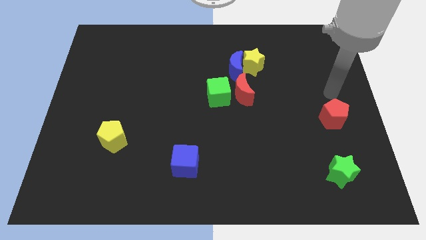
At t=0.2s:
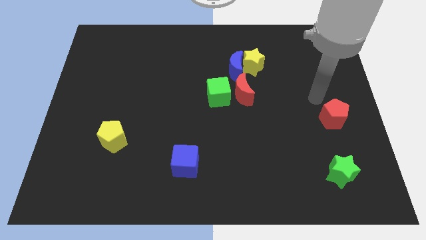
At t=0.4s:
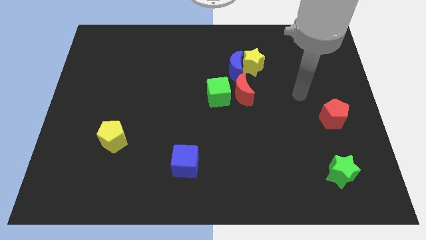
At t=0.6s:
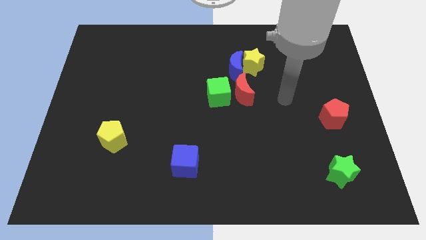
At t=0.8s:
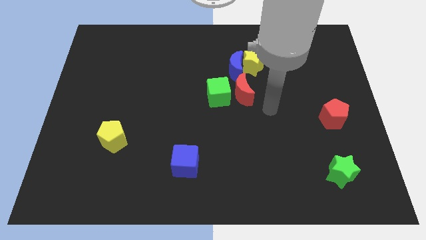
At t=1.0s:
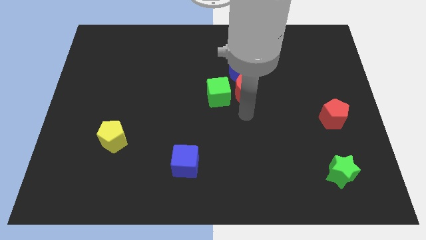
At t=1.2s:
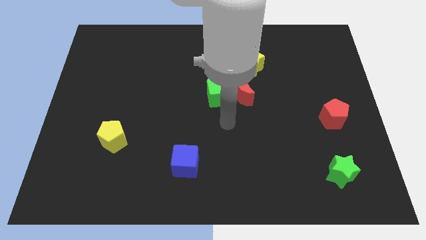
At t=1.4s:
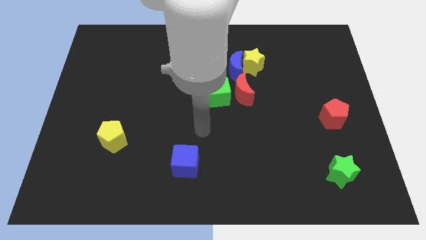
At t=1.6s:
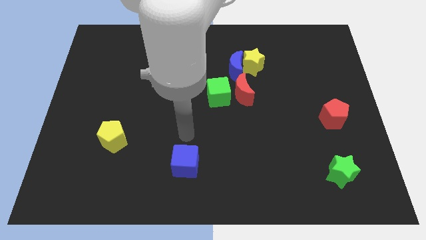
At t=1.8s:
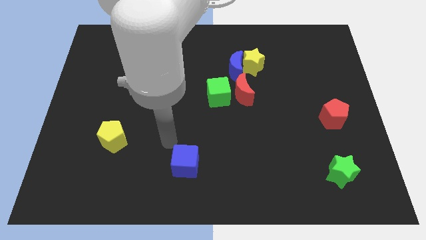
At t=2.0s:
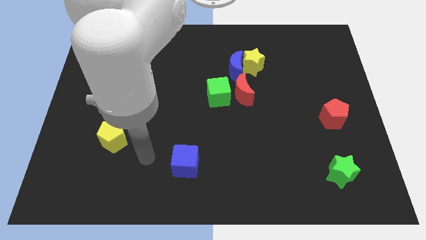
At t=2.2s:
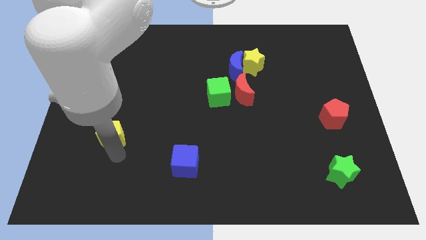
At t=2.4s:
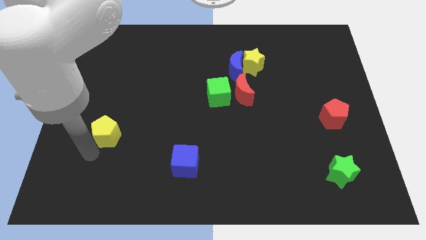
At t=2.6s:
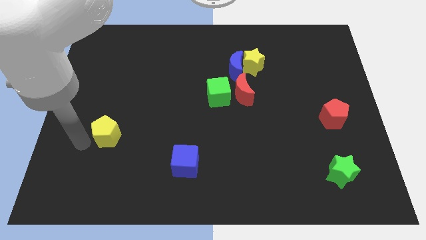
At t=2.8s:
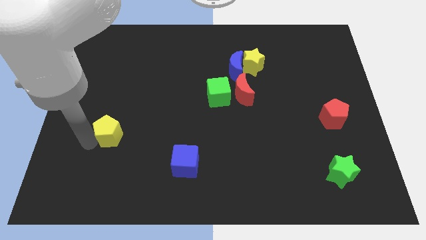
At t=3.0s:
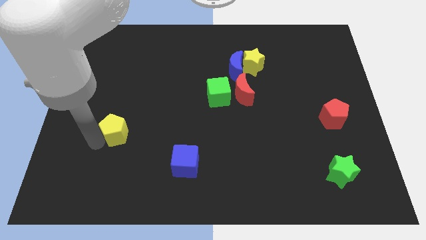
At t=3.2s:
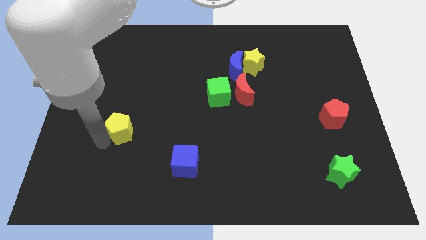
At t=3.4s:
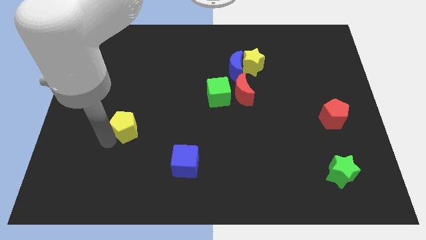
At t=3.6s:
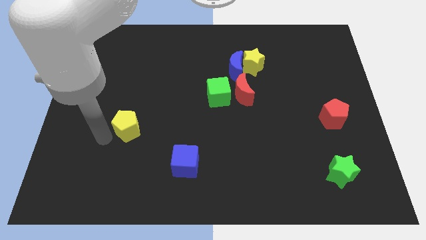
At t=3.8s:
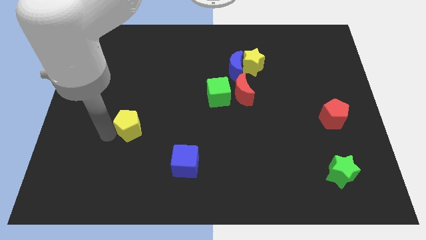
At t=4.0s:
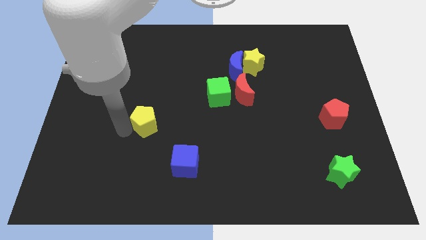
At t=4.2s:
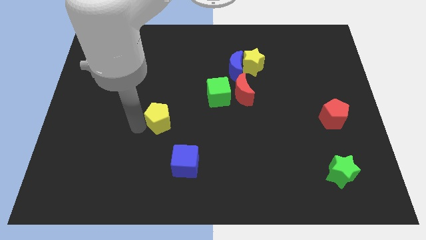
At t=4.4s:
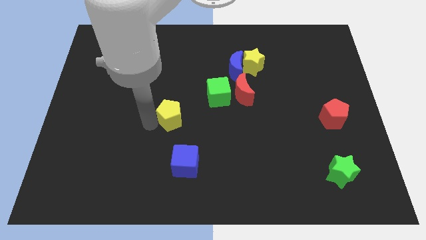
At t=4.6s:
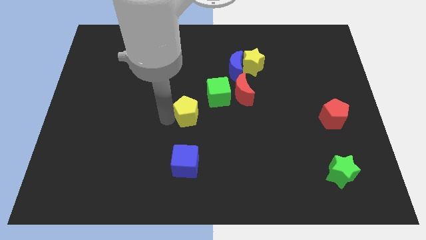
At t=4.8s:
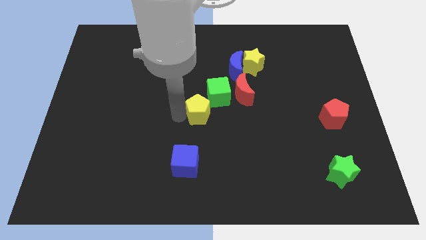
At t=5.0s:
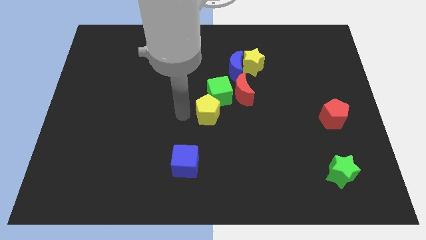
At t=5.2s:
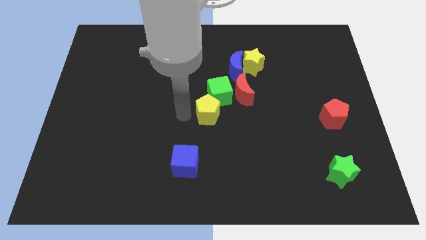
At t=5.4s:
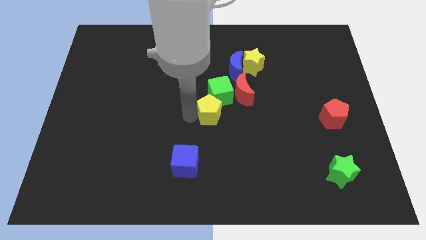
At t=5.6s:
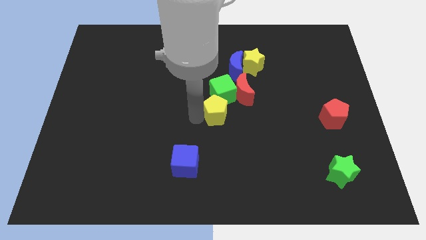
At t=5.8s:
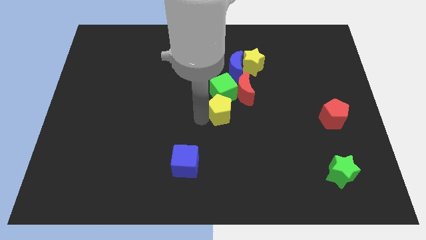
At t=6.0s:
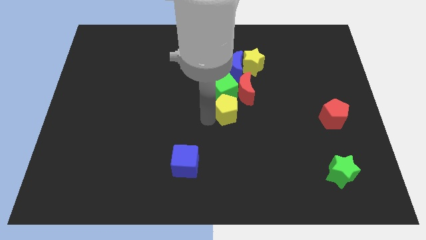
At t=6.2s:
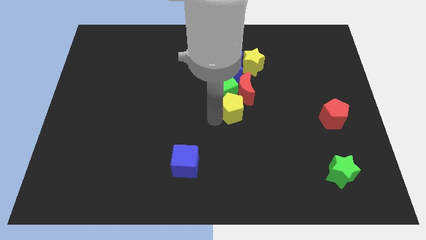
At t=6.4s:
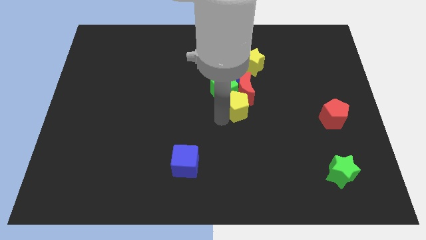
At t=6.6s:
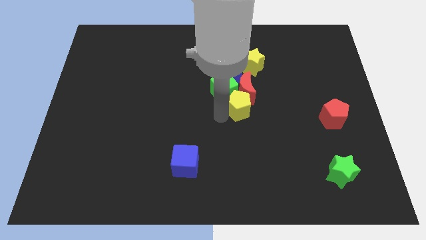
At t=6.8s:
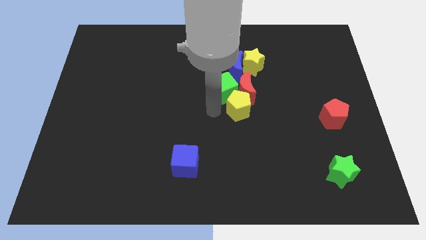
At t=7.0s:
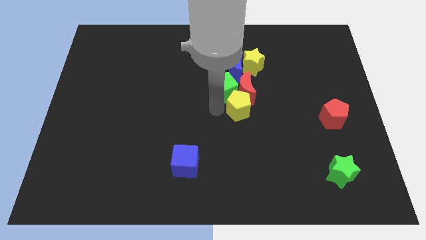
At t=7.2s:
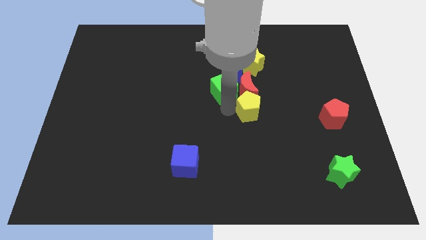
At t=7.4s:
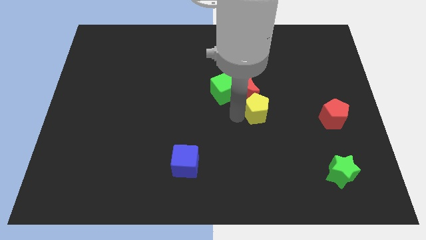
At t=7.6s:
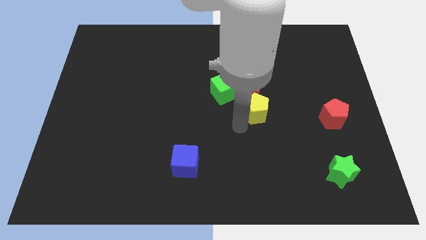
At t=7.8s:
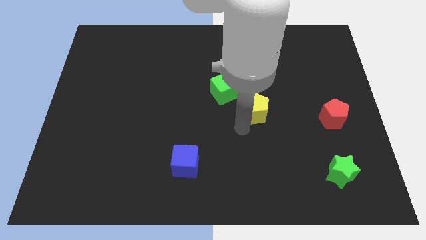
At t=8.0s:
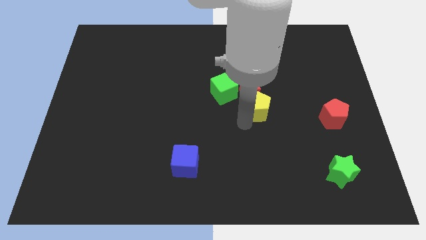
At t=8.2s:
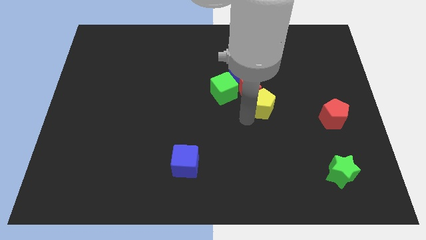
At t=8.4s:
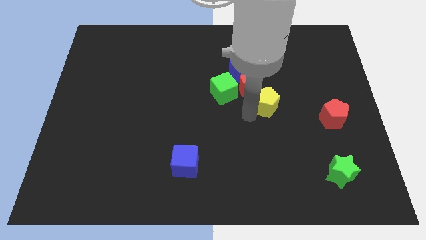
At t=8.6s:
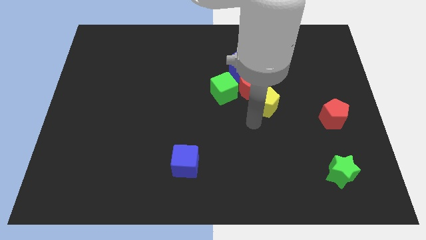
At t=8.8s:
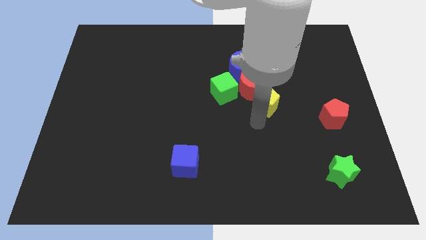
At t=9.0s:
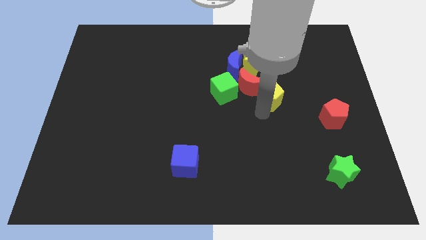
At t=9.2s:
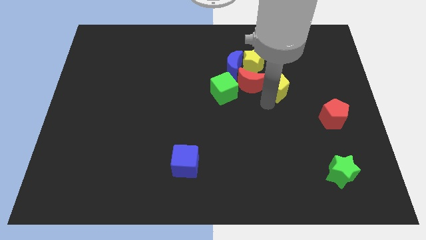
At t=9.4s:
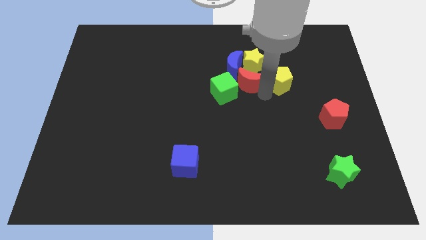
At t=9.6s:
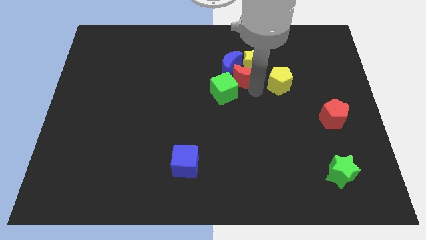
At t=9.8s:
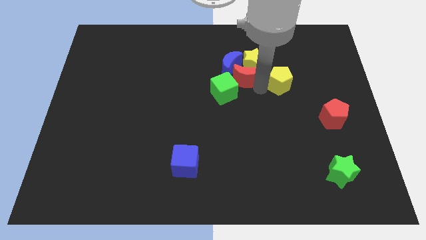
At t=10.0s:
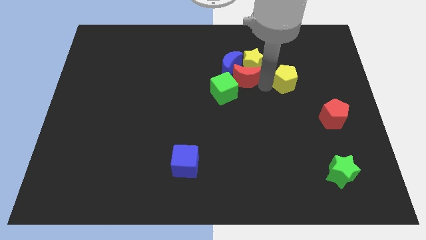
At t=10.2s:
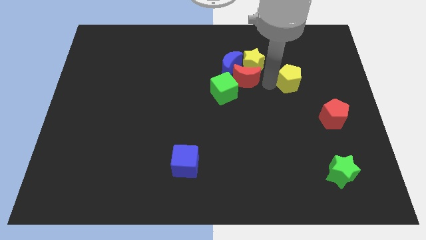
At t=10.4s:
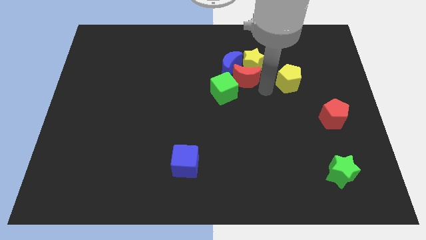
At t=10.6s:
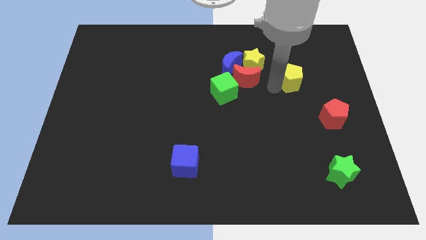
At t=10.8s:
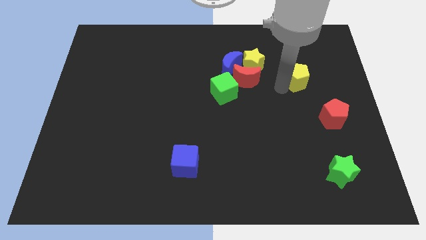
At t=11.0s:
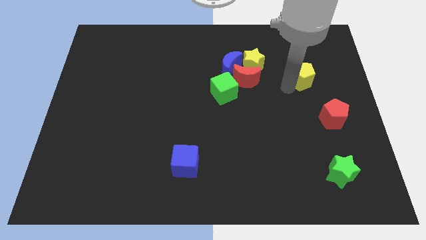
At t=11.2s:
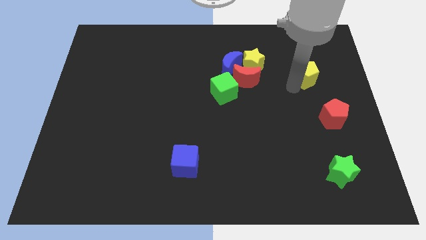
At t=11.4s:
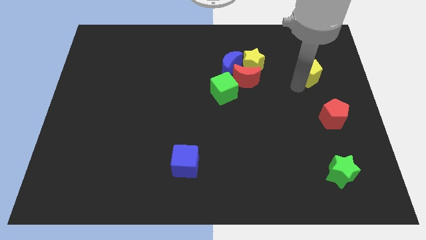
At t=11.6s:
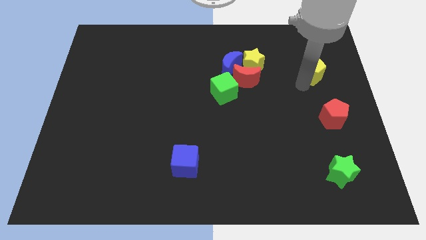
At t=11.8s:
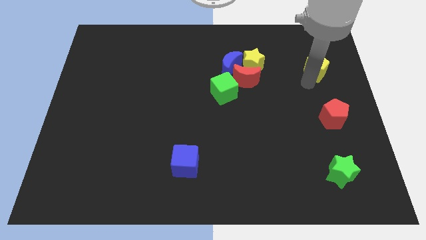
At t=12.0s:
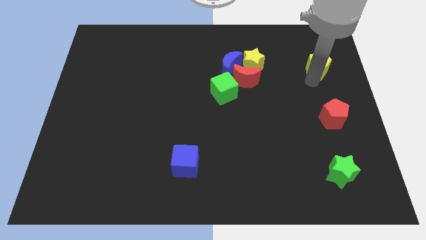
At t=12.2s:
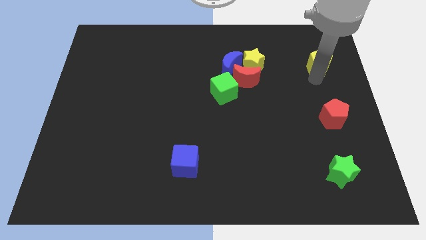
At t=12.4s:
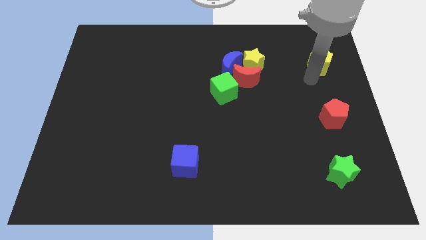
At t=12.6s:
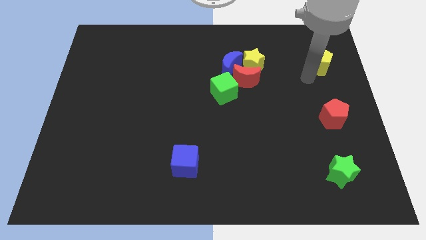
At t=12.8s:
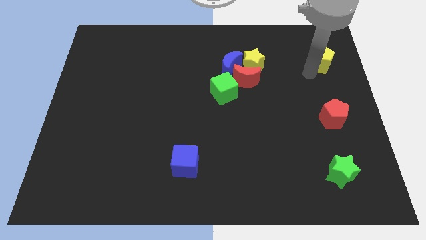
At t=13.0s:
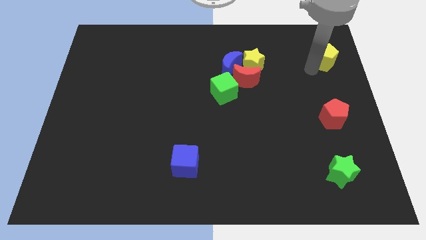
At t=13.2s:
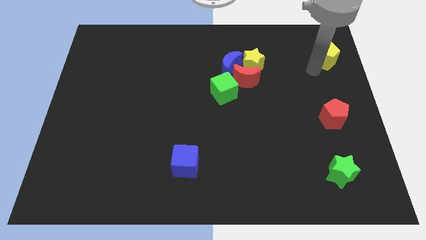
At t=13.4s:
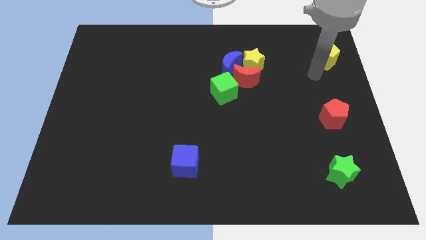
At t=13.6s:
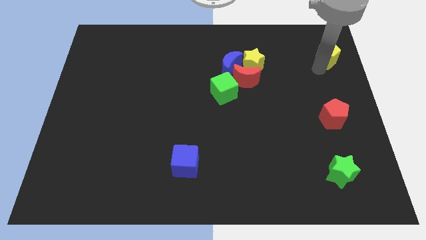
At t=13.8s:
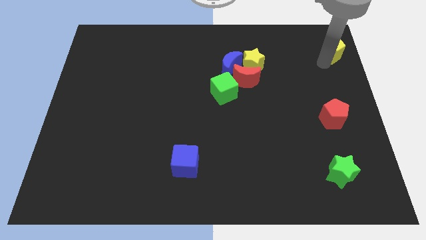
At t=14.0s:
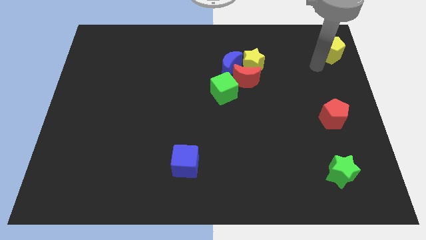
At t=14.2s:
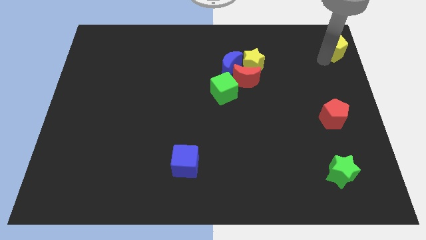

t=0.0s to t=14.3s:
push the yellow pentagon to the top right of the board
